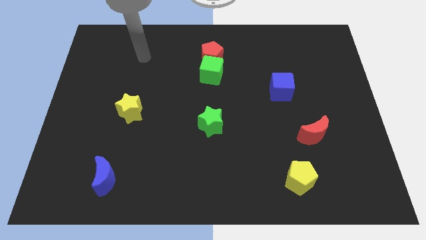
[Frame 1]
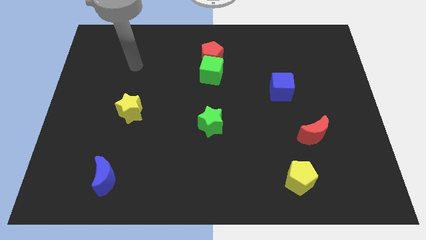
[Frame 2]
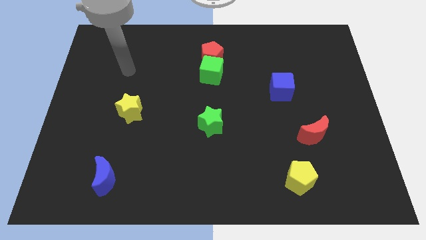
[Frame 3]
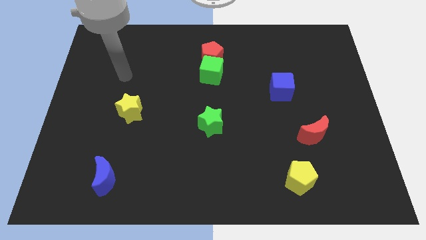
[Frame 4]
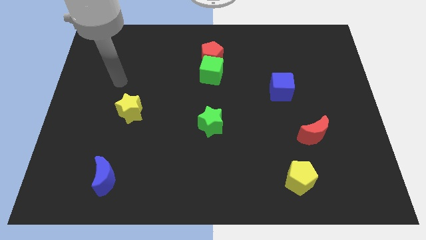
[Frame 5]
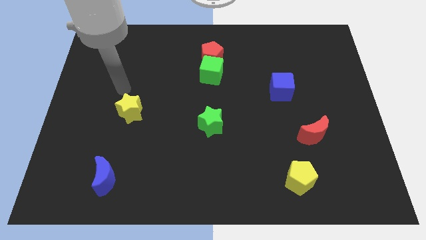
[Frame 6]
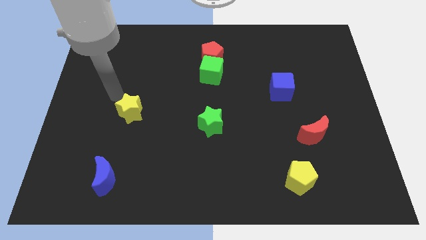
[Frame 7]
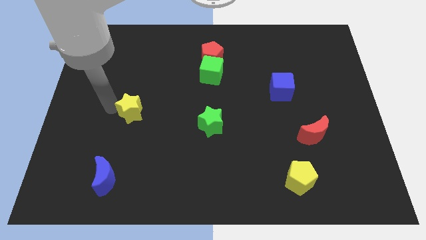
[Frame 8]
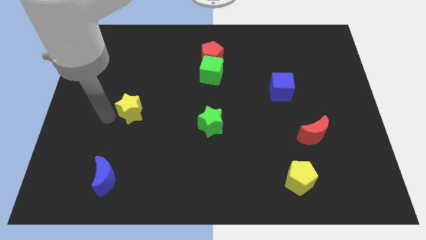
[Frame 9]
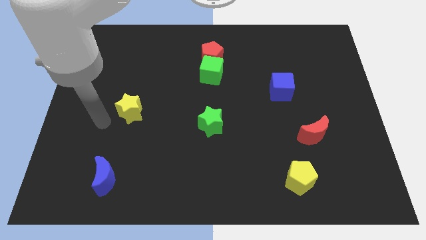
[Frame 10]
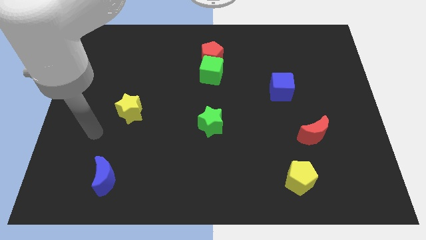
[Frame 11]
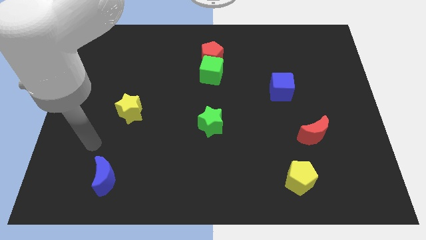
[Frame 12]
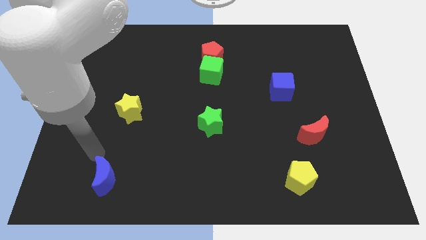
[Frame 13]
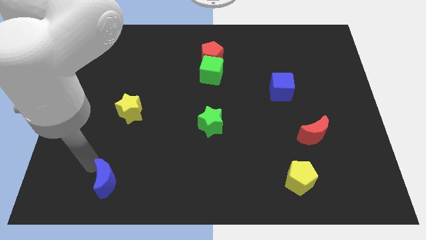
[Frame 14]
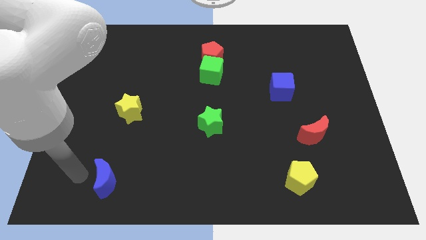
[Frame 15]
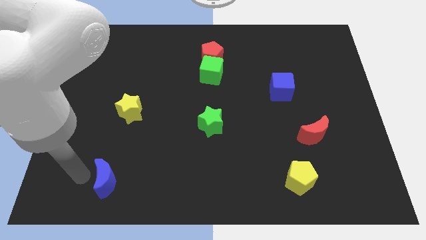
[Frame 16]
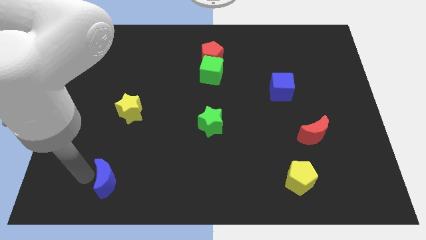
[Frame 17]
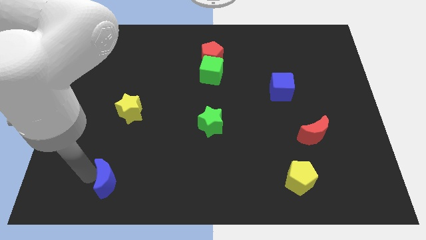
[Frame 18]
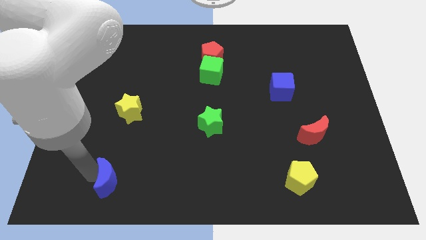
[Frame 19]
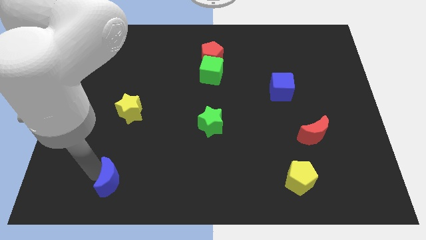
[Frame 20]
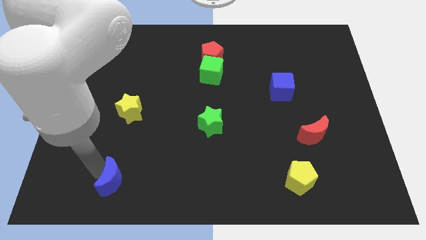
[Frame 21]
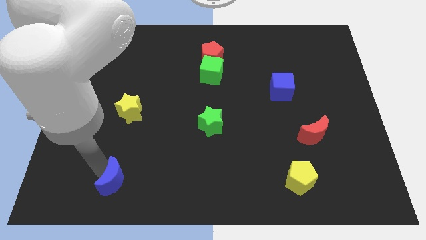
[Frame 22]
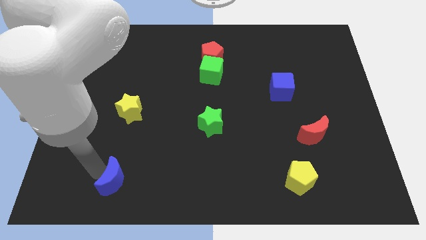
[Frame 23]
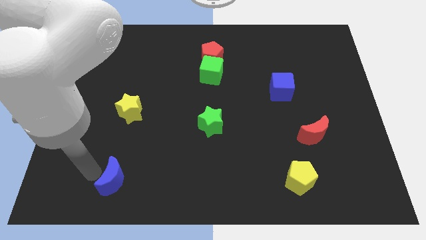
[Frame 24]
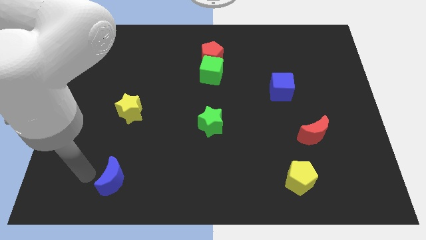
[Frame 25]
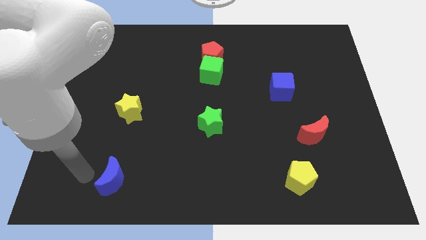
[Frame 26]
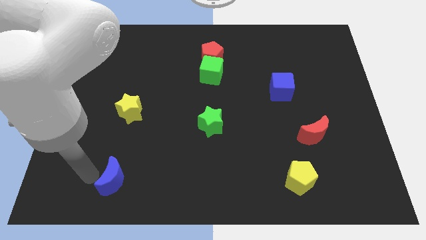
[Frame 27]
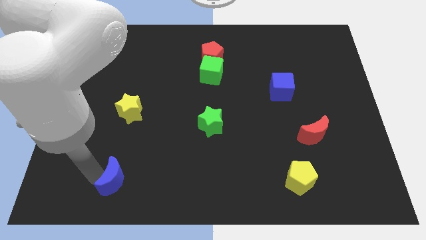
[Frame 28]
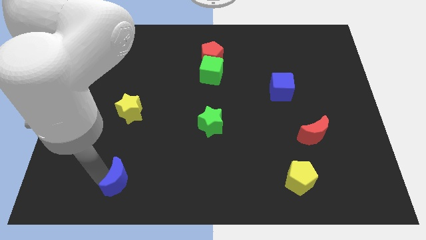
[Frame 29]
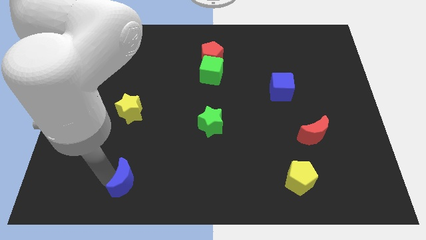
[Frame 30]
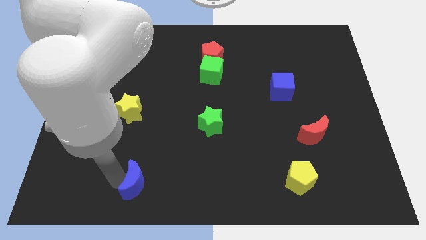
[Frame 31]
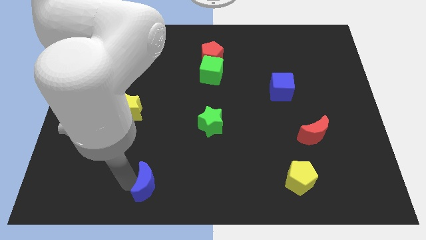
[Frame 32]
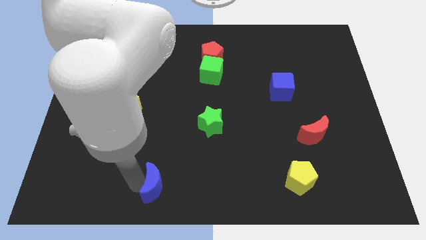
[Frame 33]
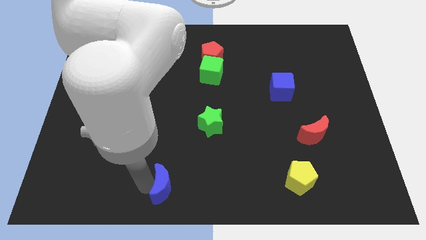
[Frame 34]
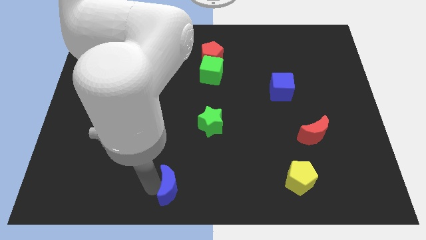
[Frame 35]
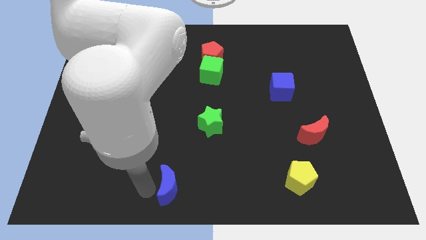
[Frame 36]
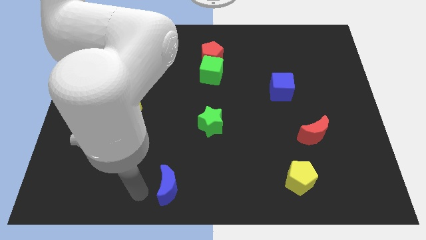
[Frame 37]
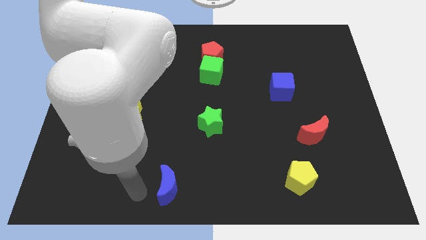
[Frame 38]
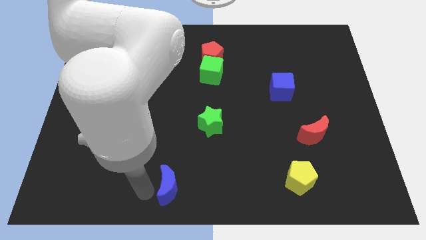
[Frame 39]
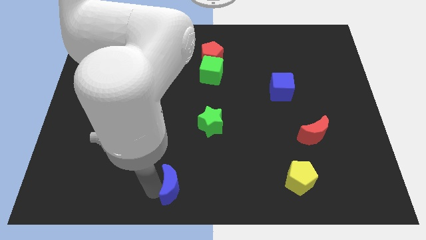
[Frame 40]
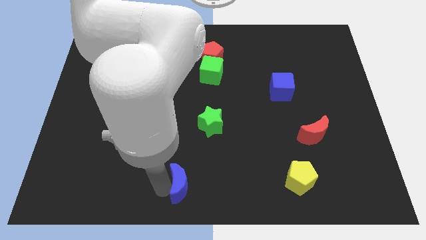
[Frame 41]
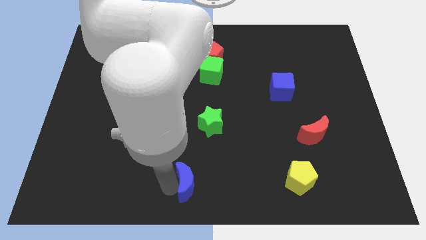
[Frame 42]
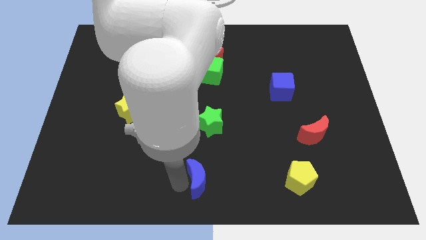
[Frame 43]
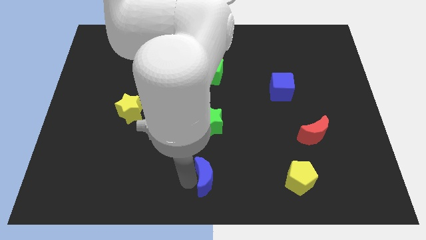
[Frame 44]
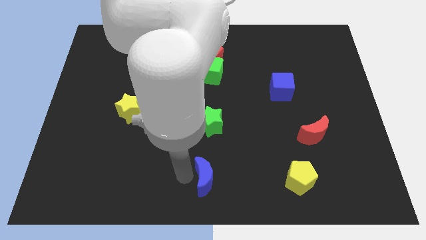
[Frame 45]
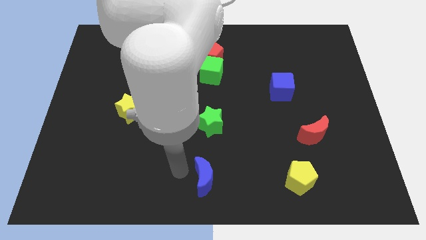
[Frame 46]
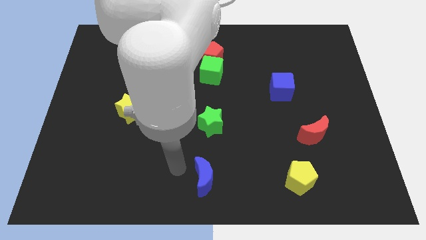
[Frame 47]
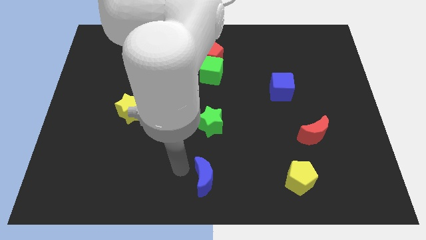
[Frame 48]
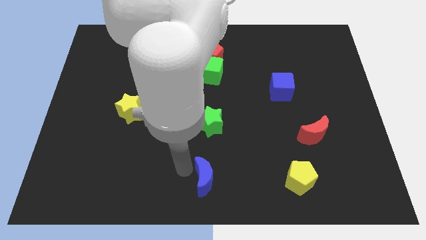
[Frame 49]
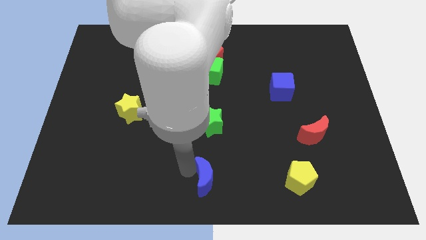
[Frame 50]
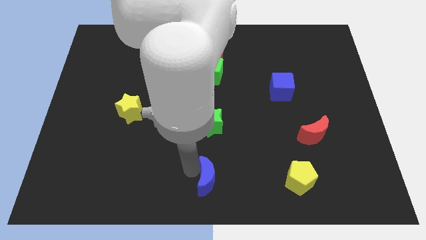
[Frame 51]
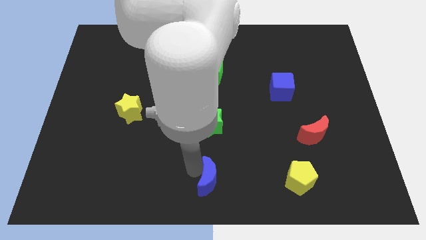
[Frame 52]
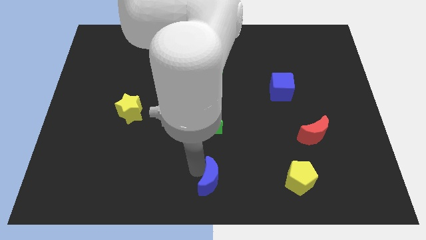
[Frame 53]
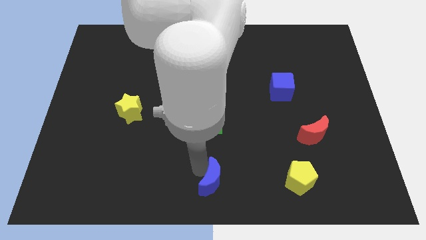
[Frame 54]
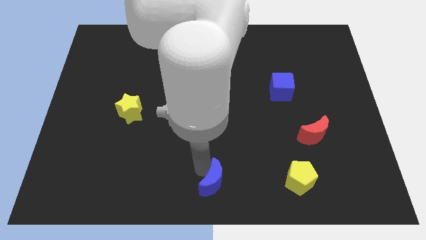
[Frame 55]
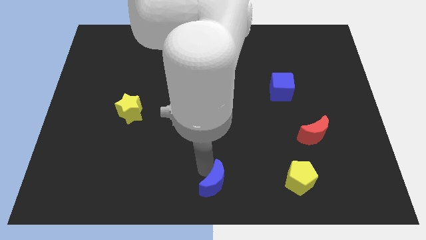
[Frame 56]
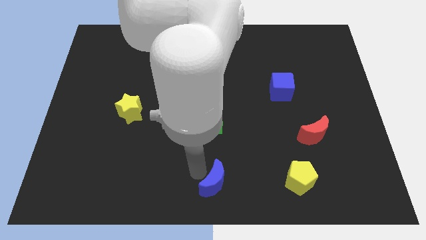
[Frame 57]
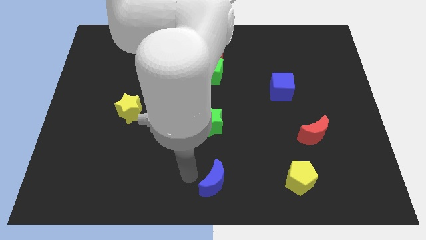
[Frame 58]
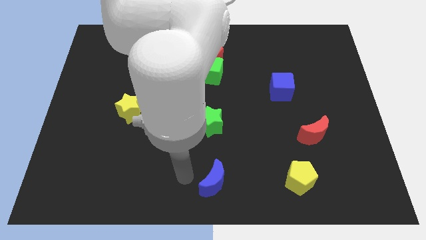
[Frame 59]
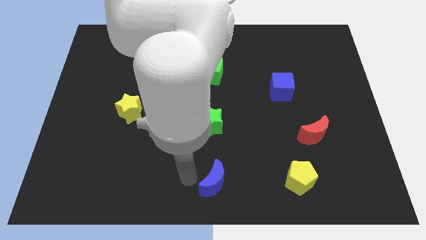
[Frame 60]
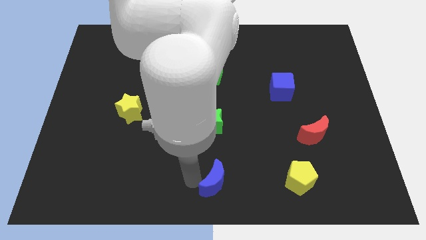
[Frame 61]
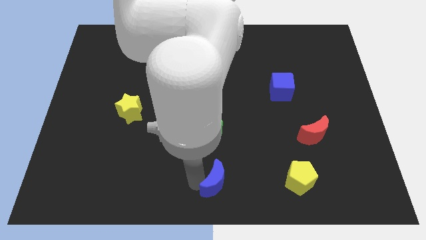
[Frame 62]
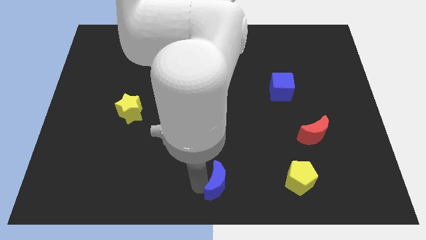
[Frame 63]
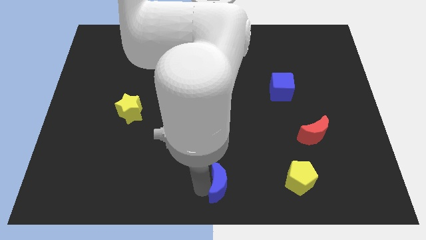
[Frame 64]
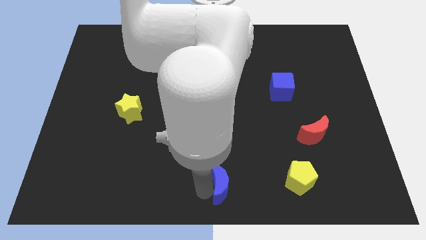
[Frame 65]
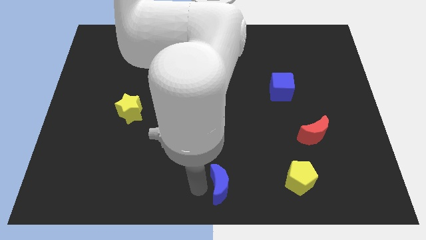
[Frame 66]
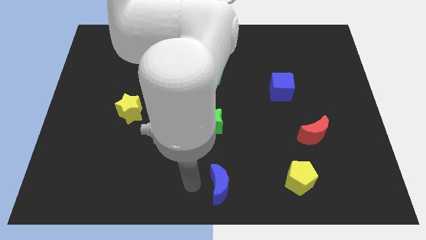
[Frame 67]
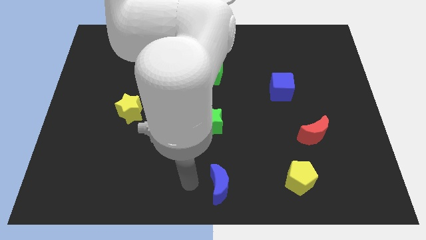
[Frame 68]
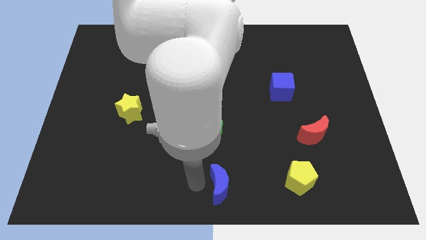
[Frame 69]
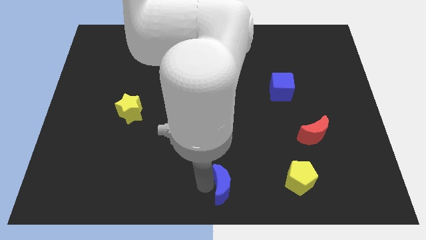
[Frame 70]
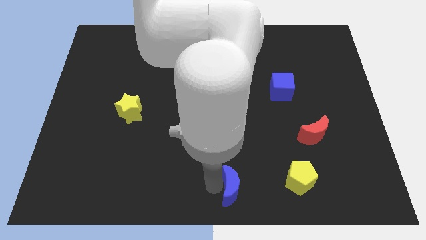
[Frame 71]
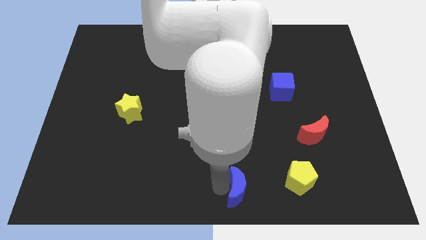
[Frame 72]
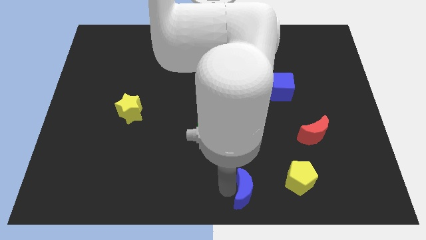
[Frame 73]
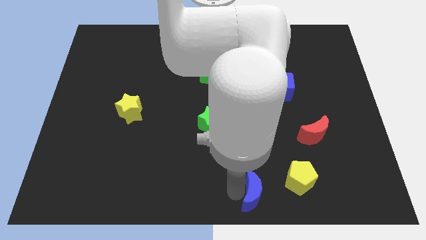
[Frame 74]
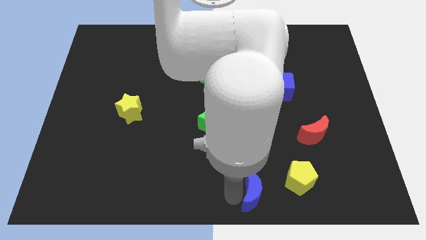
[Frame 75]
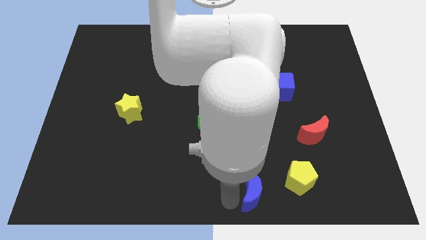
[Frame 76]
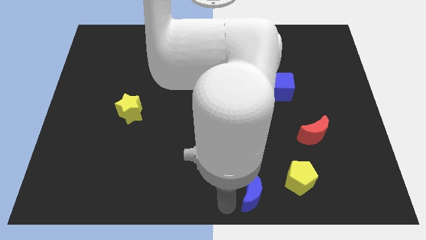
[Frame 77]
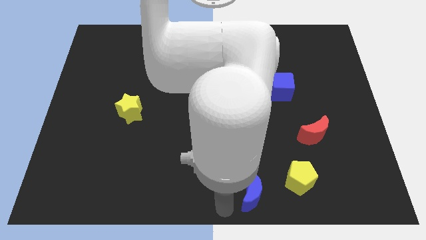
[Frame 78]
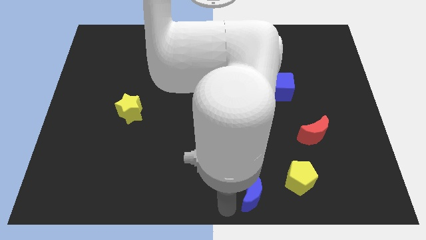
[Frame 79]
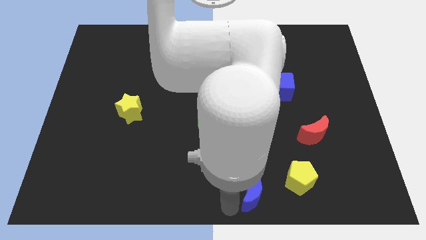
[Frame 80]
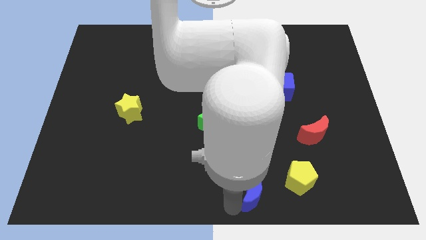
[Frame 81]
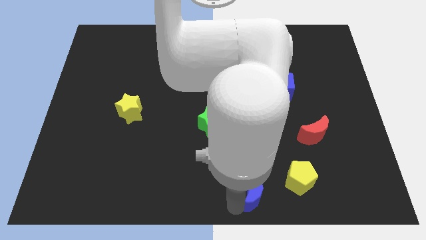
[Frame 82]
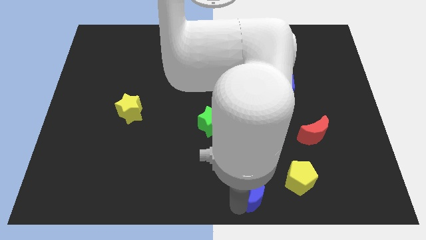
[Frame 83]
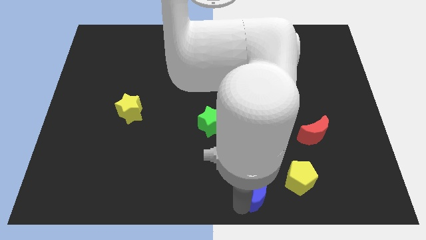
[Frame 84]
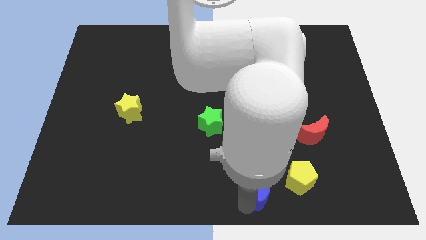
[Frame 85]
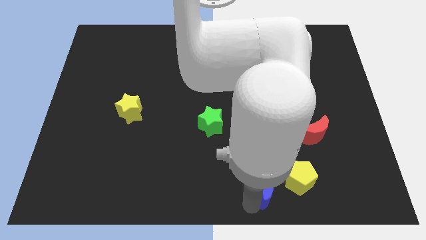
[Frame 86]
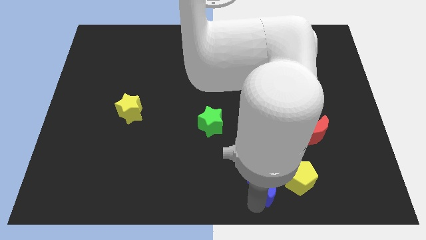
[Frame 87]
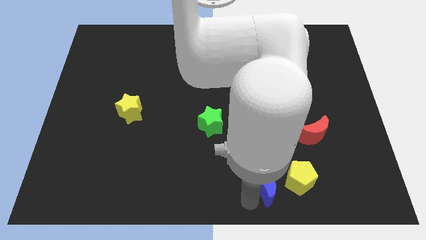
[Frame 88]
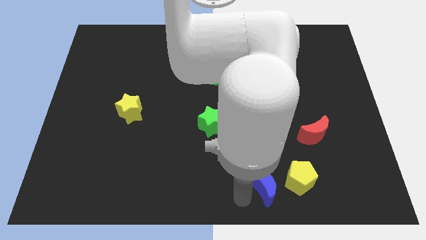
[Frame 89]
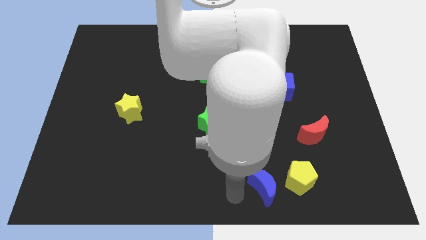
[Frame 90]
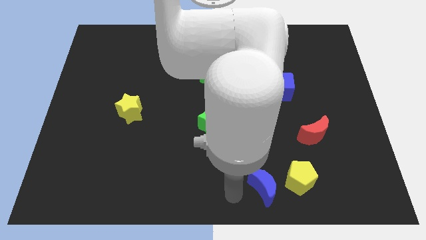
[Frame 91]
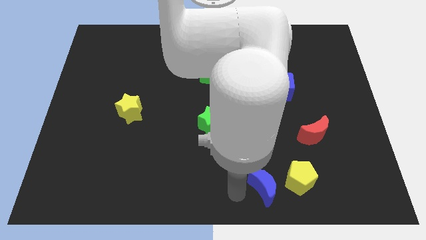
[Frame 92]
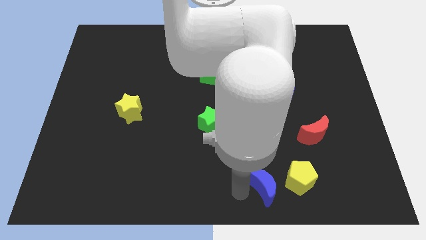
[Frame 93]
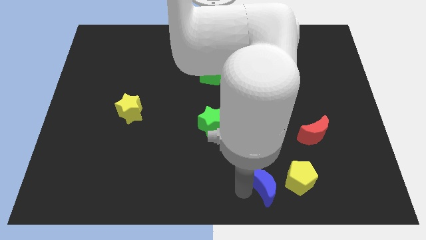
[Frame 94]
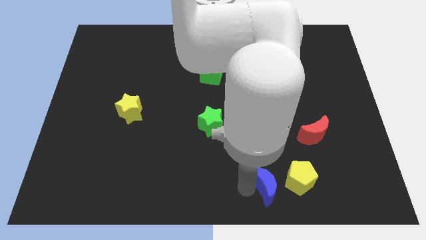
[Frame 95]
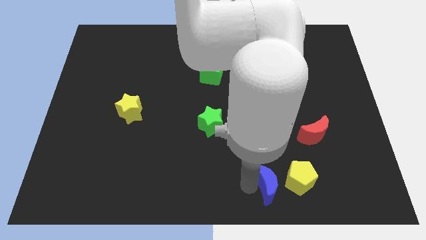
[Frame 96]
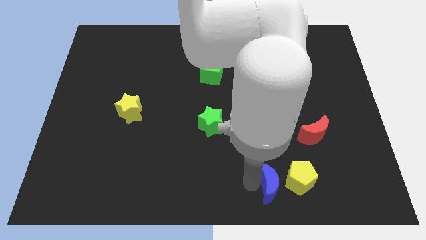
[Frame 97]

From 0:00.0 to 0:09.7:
put the blue moon next to the yellow pentagon
